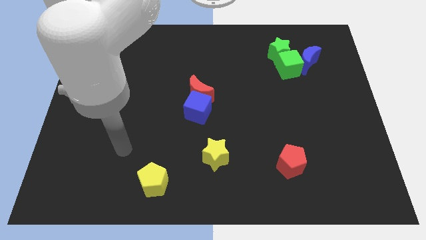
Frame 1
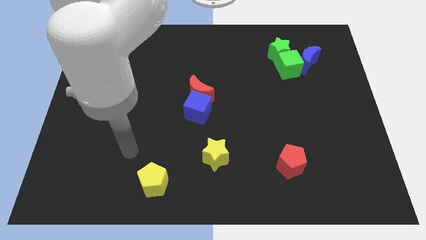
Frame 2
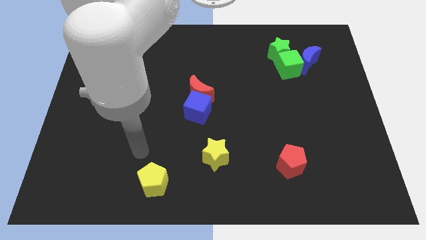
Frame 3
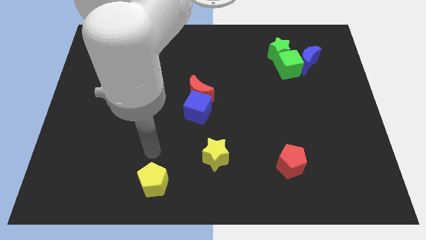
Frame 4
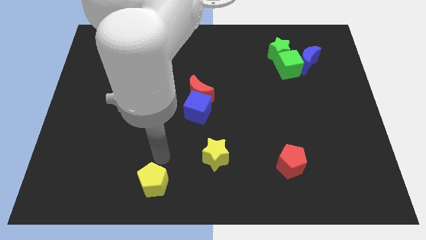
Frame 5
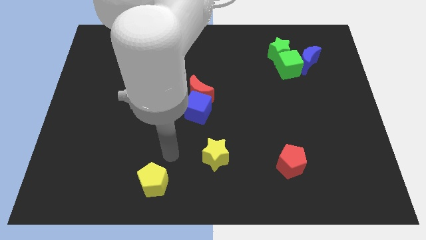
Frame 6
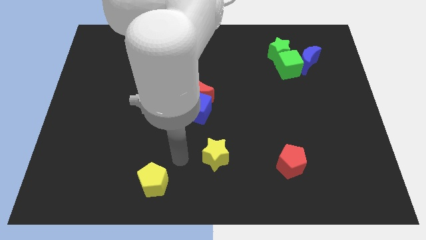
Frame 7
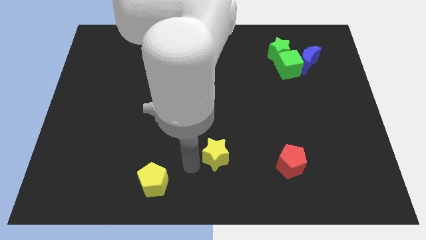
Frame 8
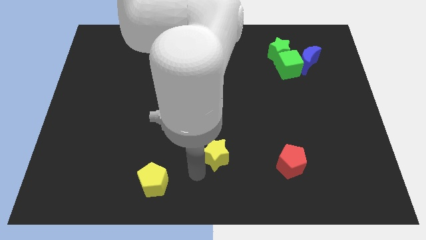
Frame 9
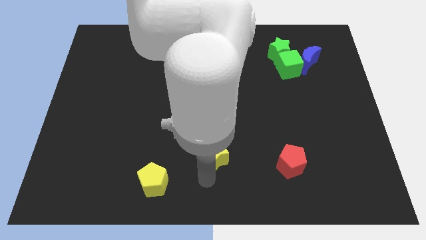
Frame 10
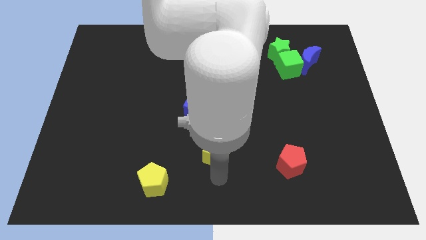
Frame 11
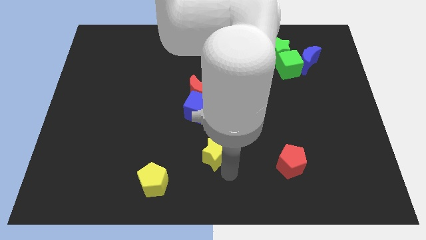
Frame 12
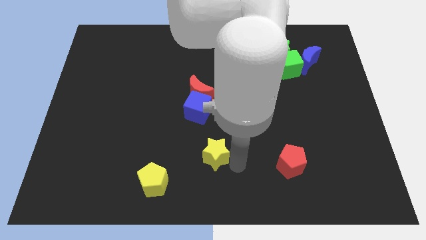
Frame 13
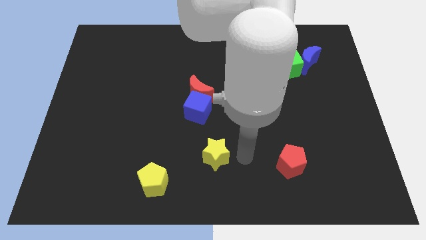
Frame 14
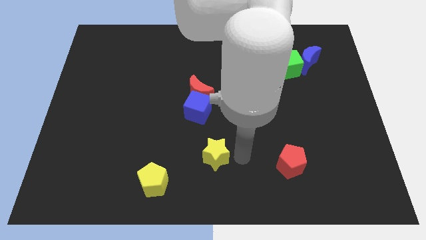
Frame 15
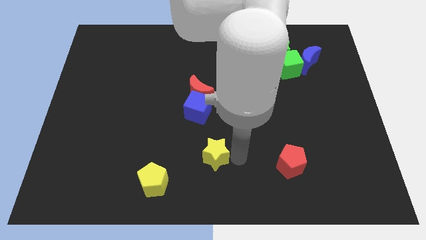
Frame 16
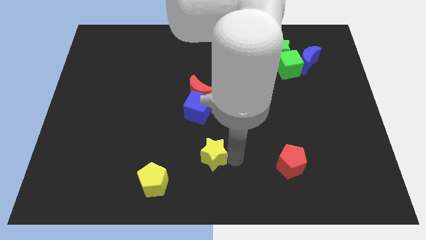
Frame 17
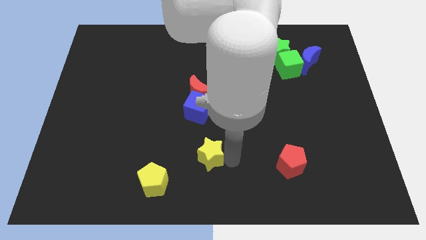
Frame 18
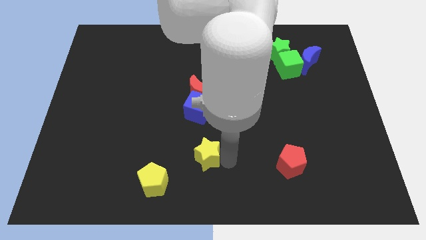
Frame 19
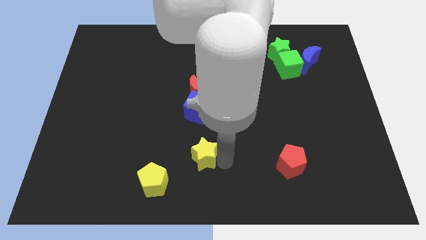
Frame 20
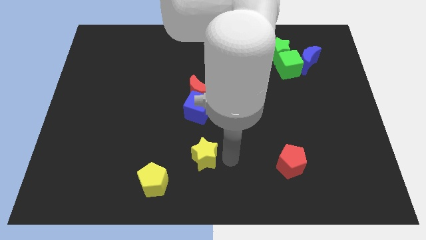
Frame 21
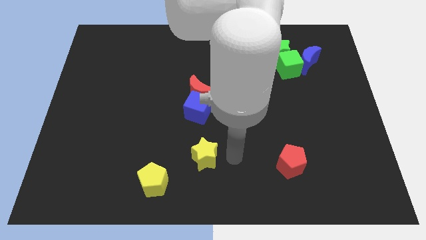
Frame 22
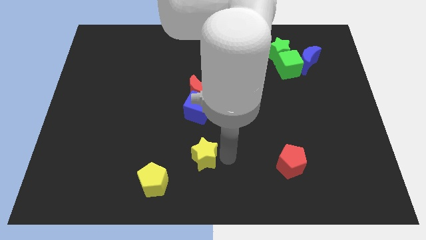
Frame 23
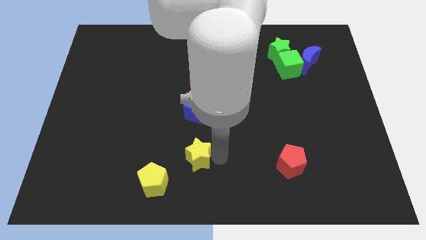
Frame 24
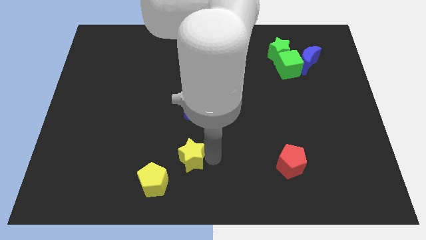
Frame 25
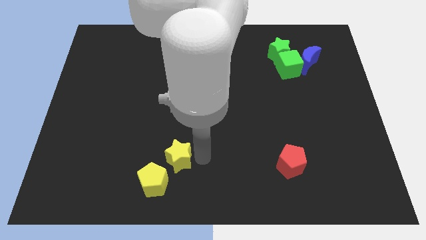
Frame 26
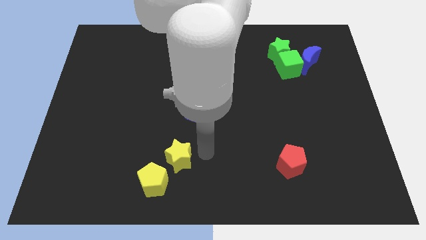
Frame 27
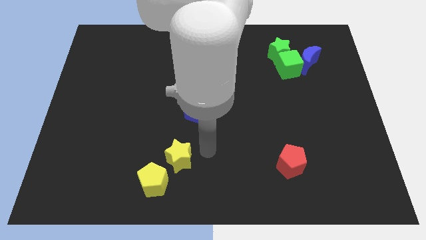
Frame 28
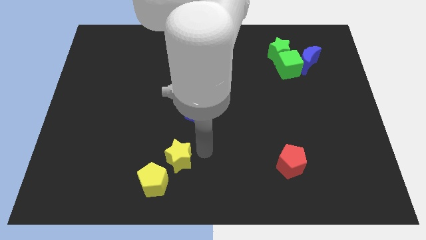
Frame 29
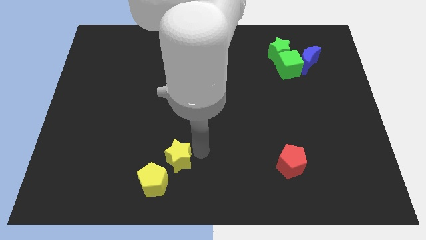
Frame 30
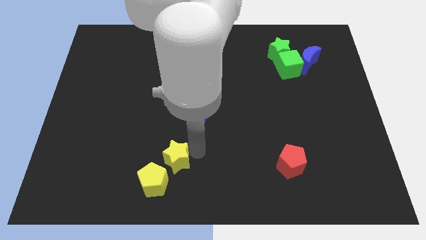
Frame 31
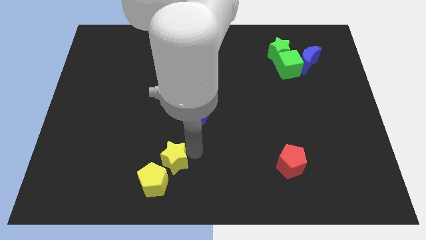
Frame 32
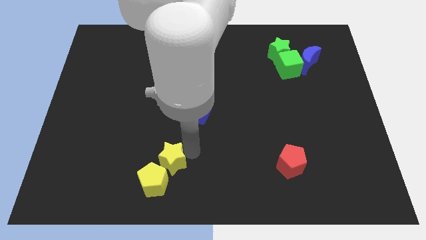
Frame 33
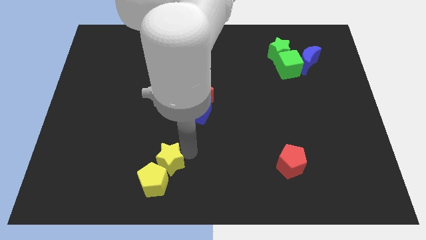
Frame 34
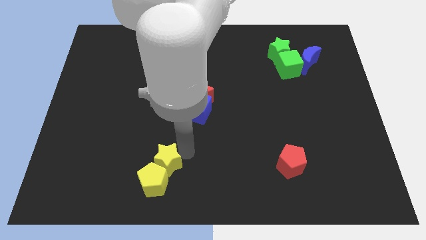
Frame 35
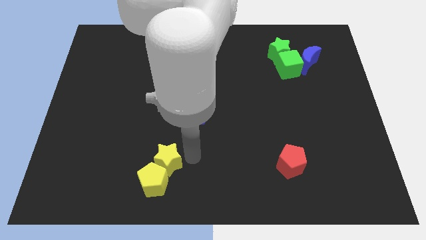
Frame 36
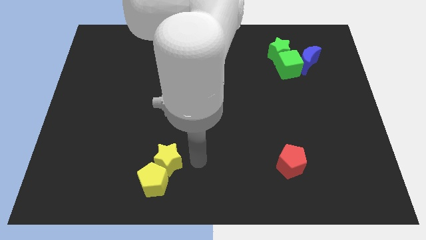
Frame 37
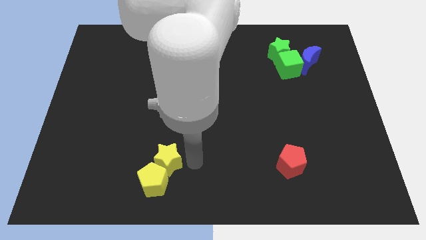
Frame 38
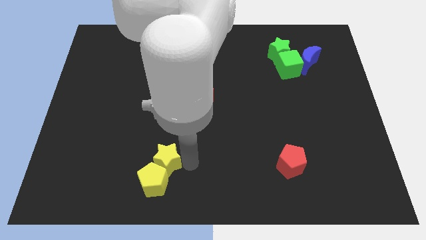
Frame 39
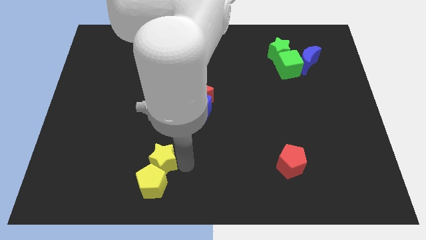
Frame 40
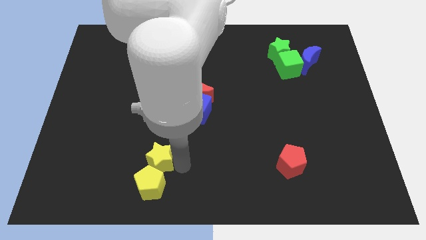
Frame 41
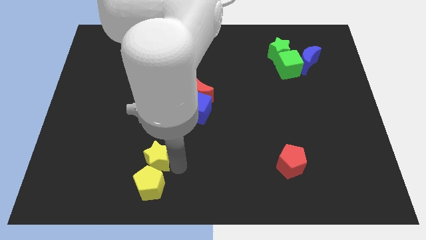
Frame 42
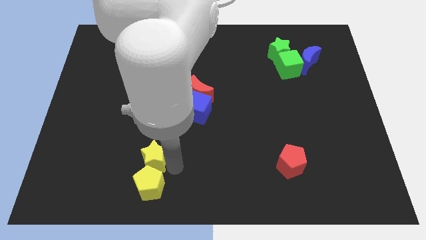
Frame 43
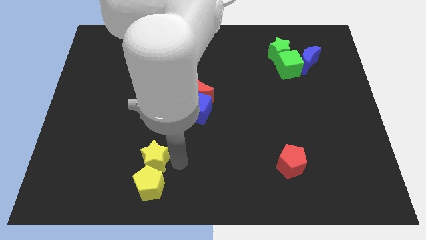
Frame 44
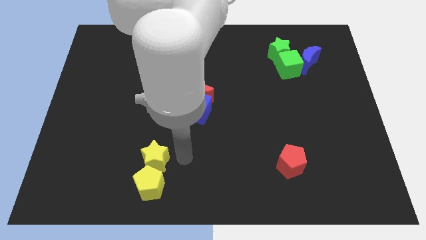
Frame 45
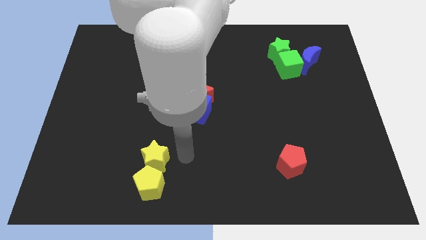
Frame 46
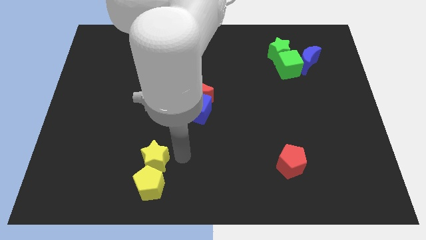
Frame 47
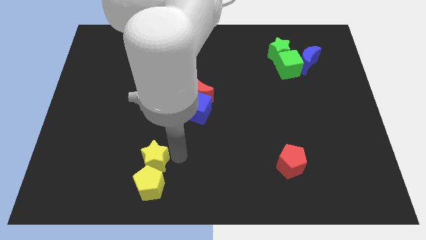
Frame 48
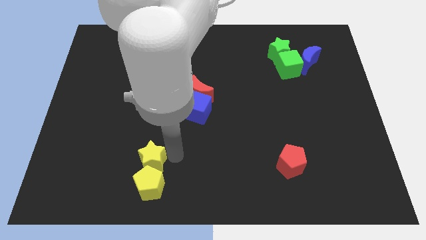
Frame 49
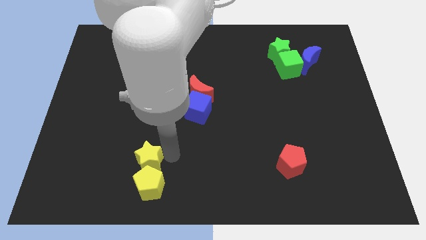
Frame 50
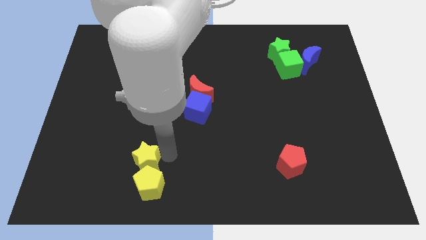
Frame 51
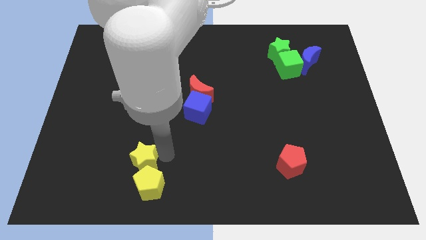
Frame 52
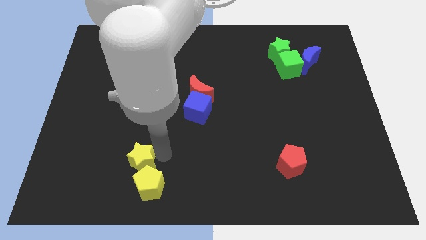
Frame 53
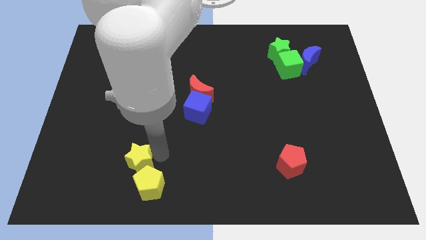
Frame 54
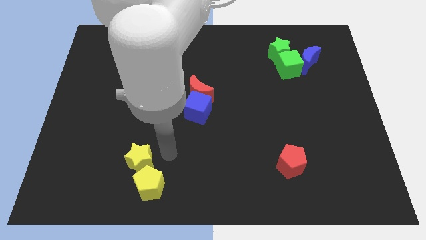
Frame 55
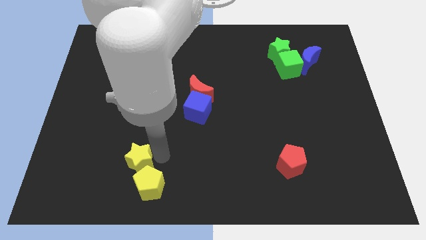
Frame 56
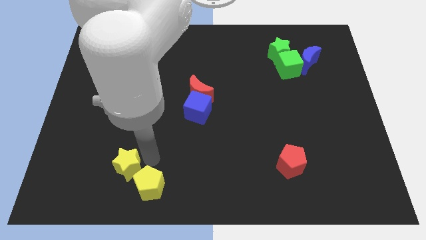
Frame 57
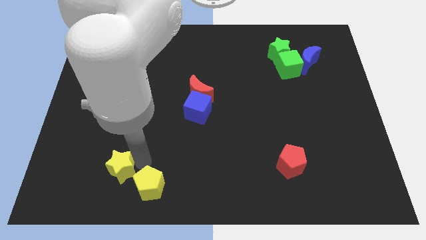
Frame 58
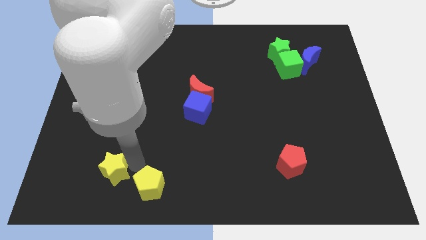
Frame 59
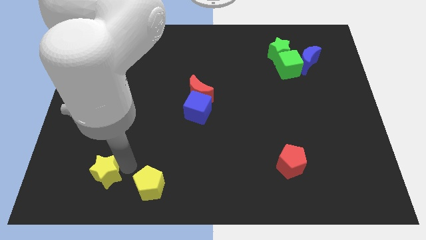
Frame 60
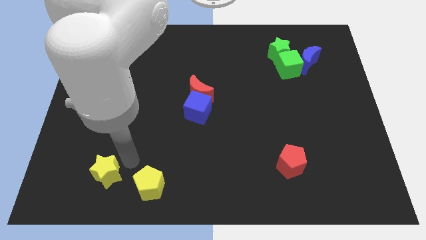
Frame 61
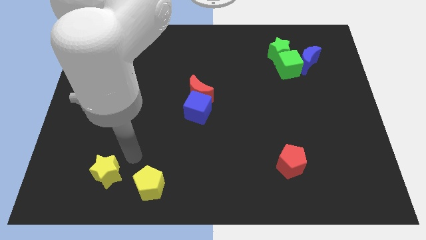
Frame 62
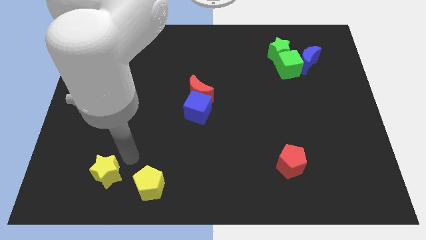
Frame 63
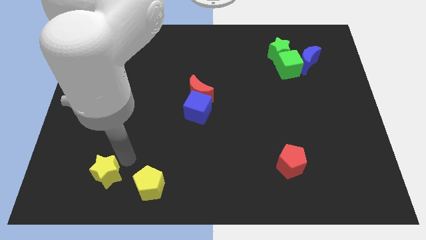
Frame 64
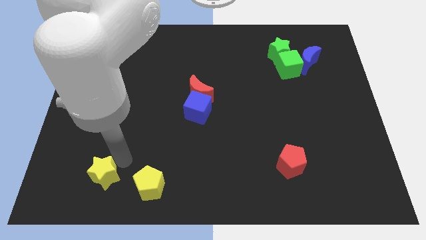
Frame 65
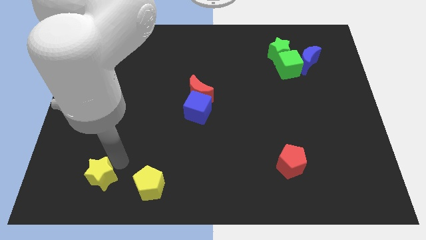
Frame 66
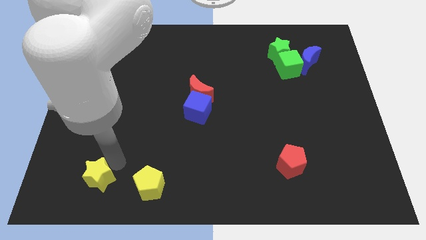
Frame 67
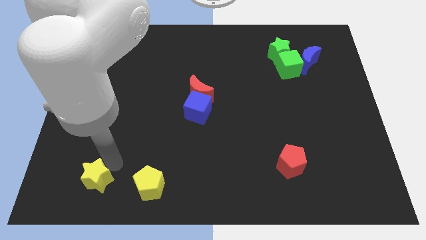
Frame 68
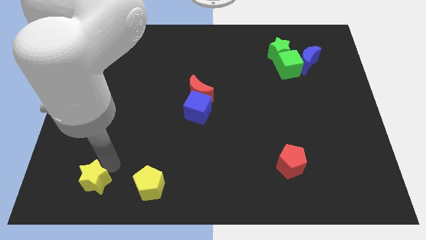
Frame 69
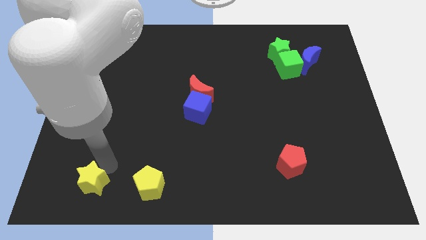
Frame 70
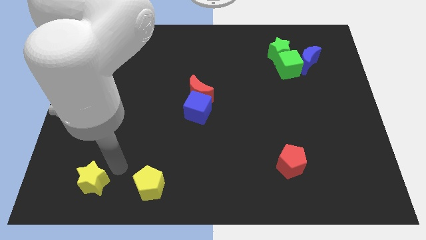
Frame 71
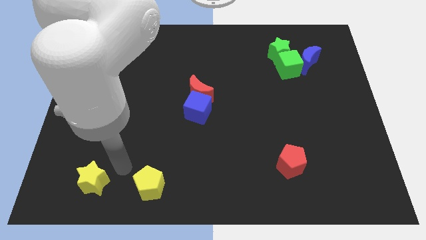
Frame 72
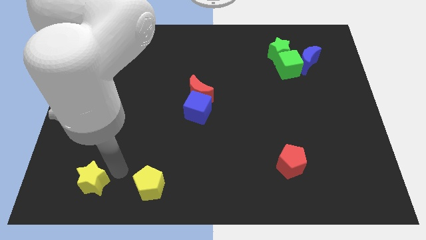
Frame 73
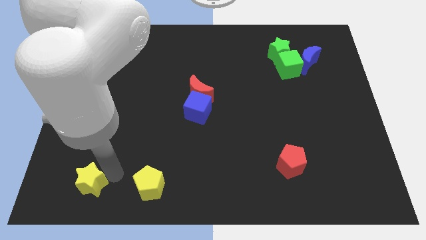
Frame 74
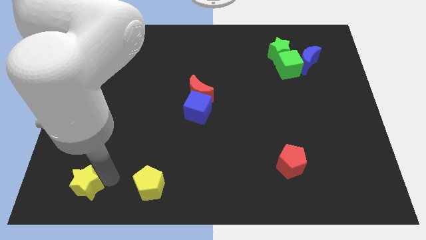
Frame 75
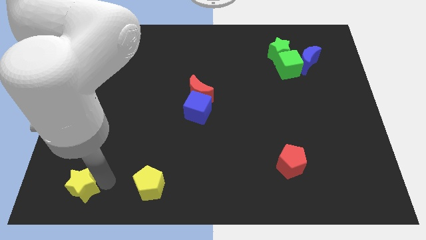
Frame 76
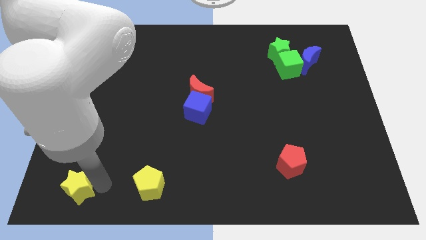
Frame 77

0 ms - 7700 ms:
put the yellow star to the bottom left corner
